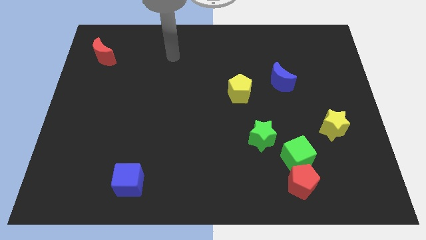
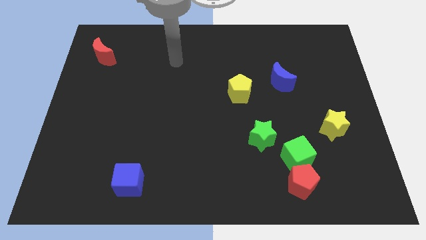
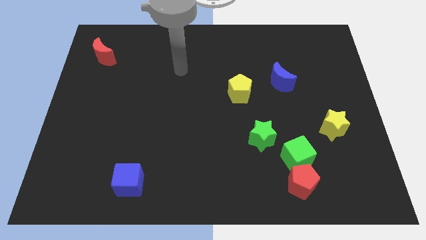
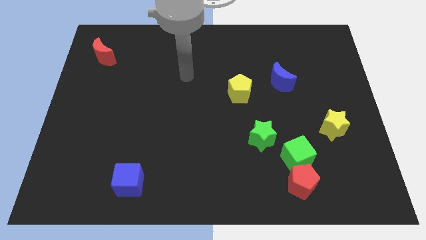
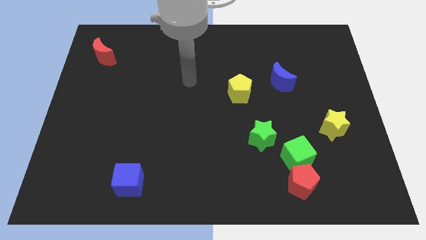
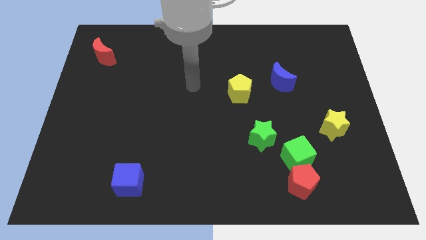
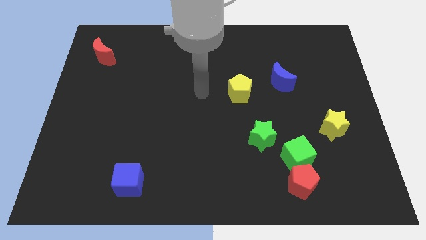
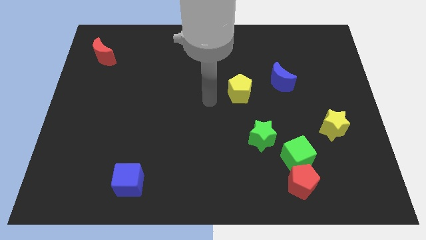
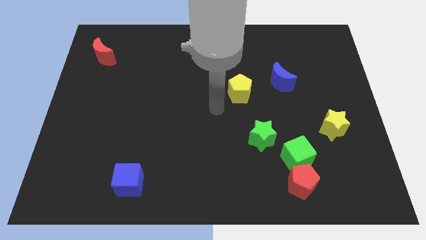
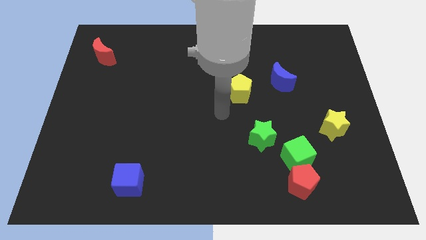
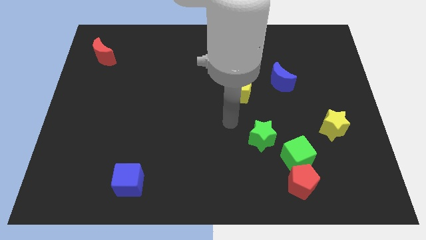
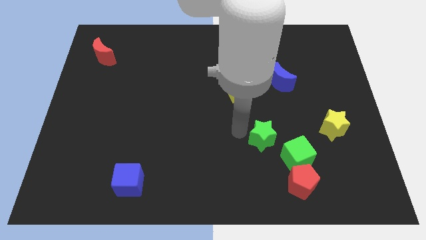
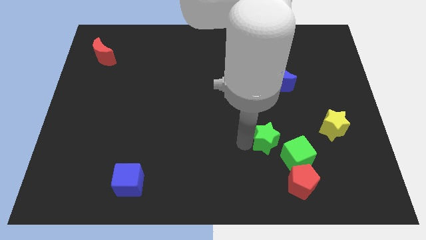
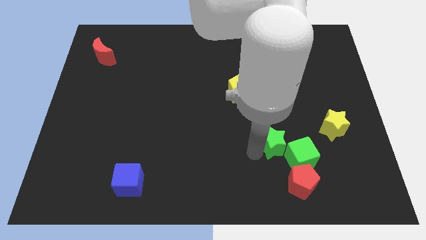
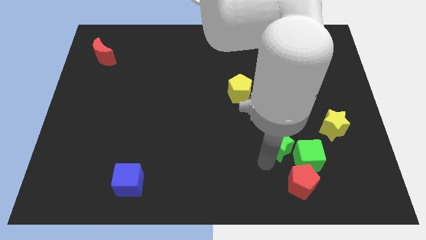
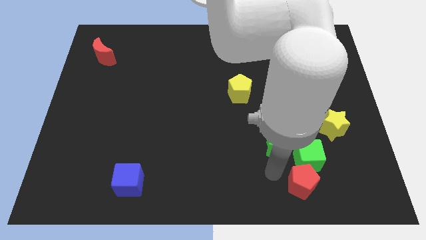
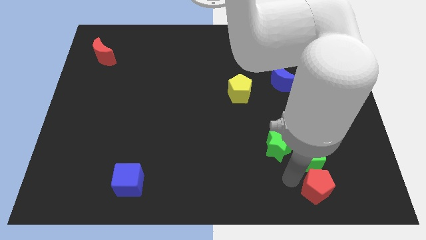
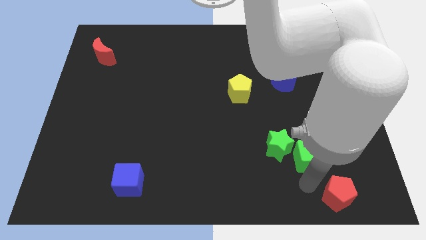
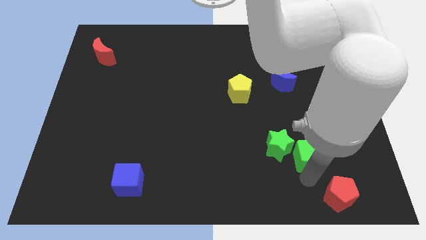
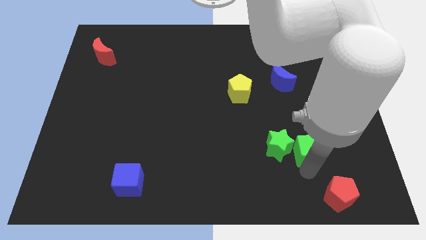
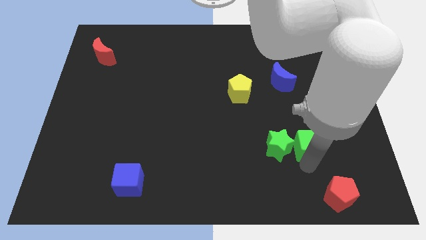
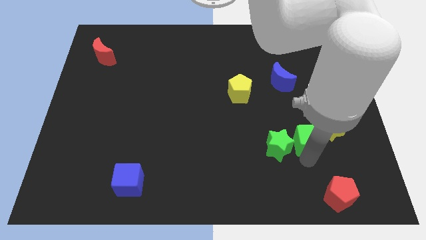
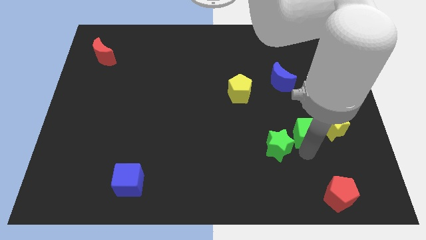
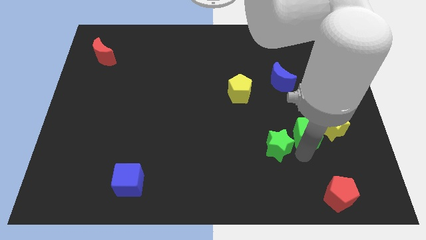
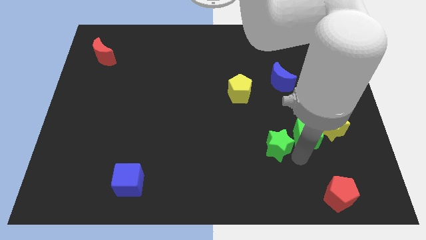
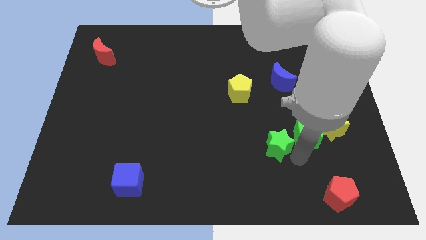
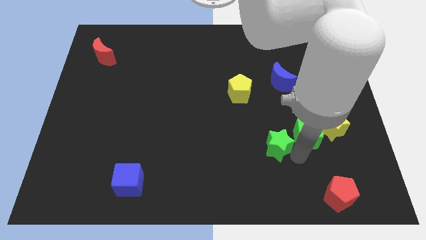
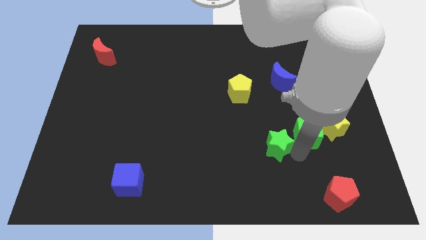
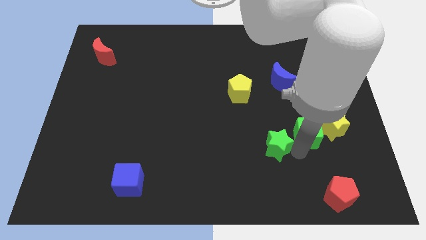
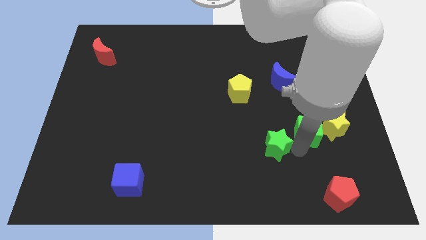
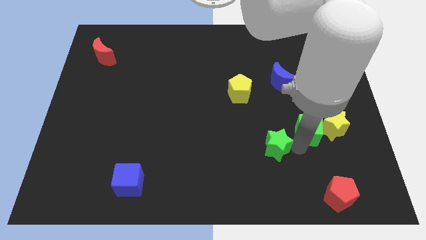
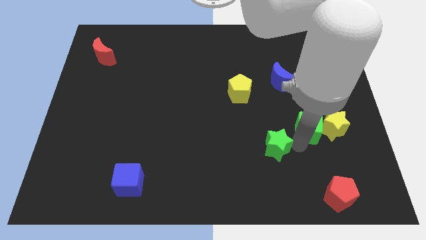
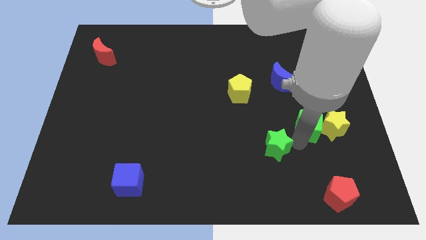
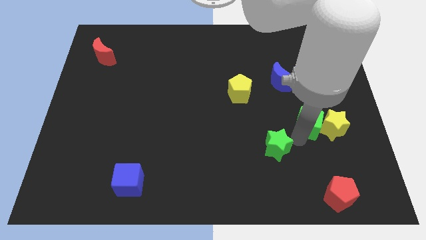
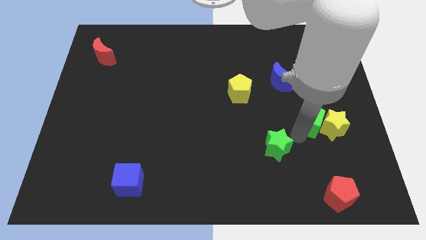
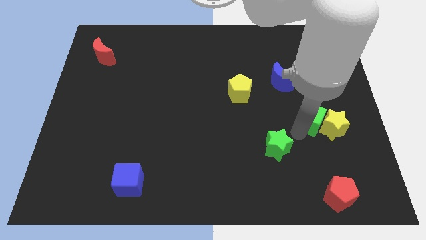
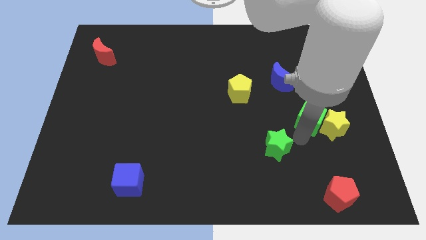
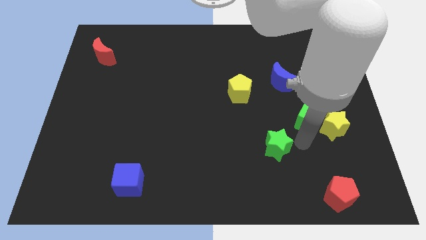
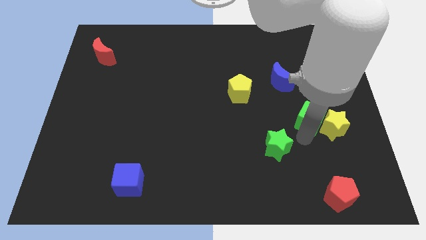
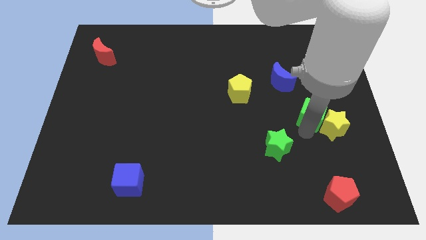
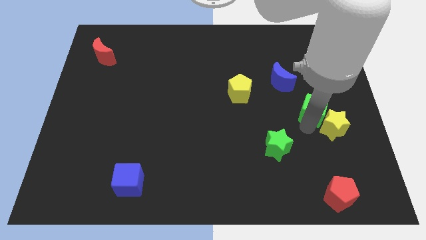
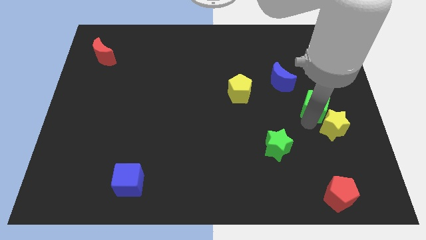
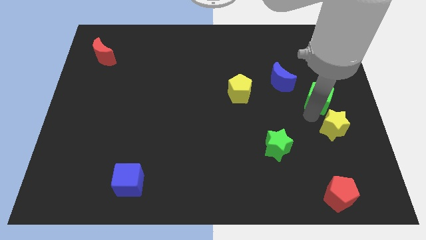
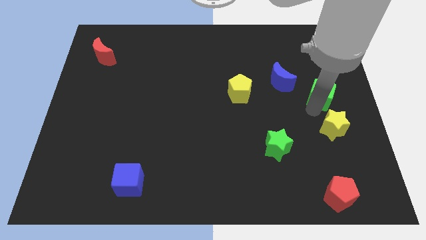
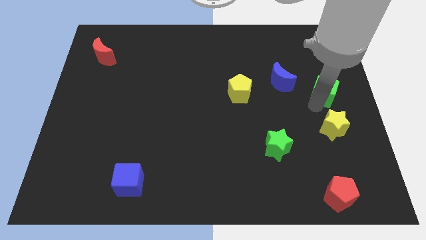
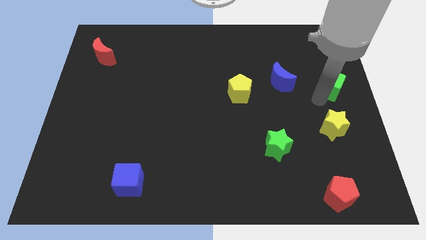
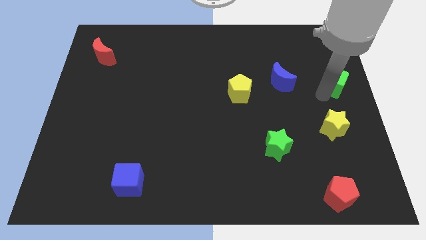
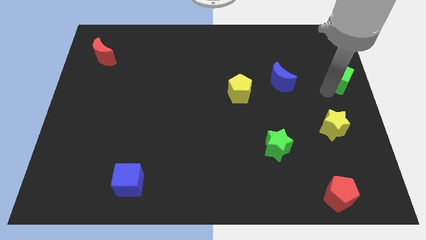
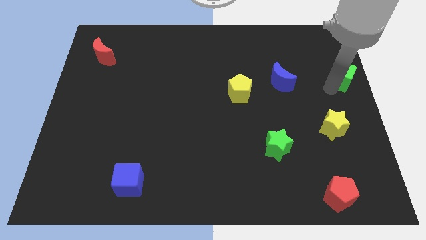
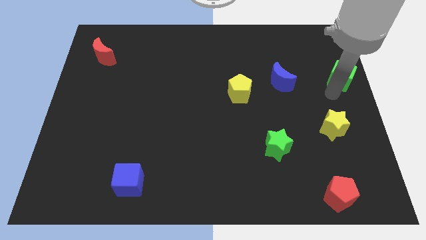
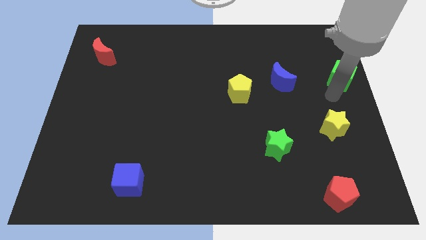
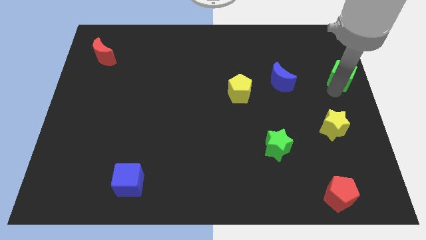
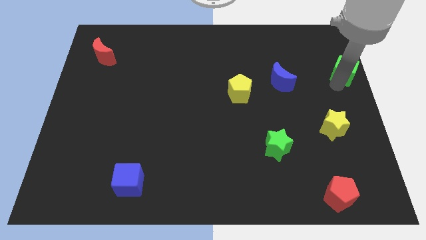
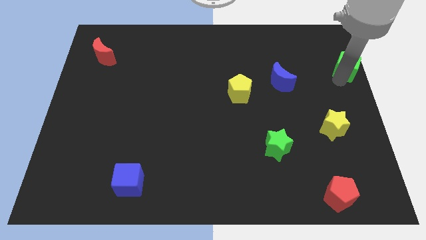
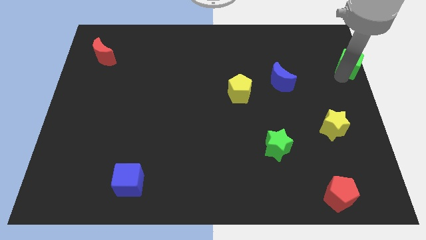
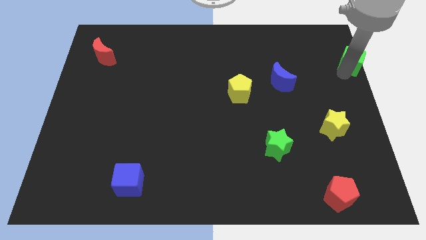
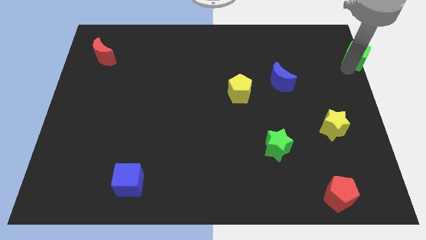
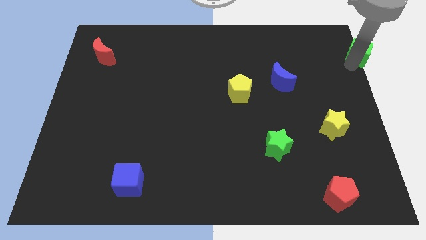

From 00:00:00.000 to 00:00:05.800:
push the green cube to the upper right corner

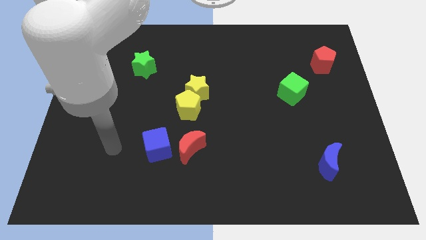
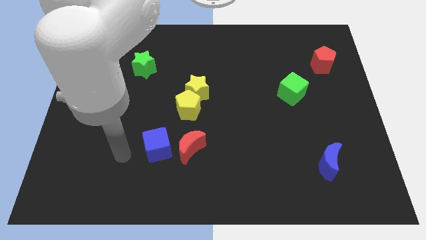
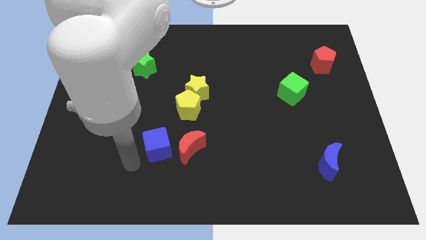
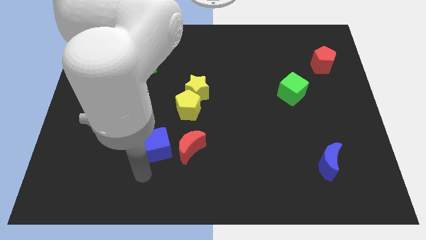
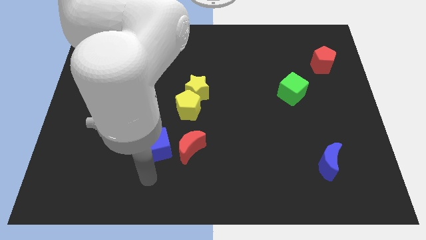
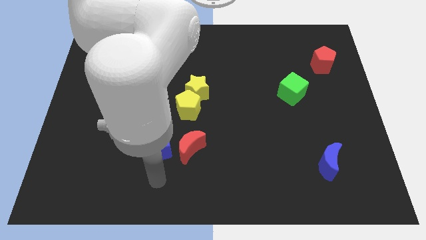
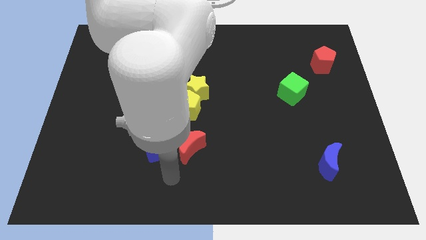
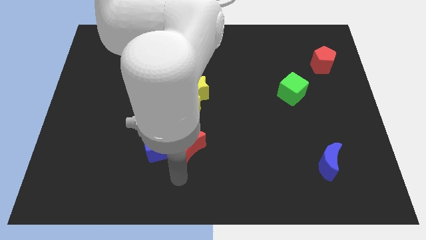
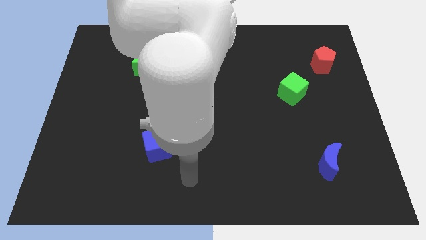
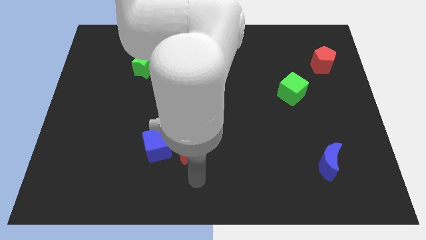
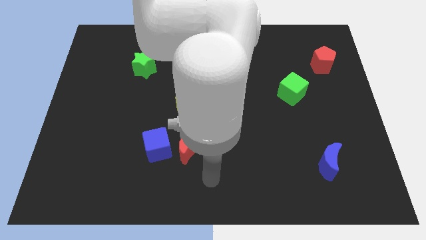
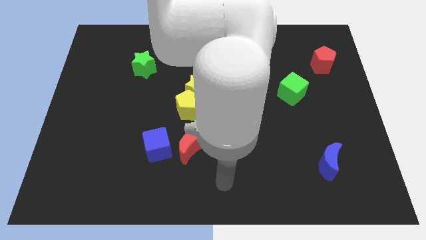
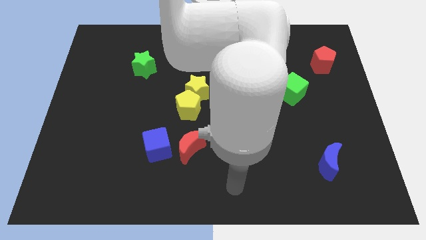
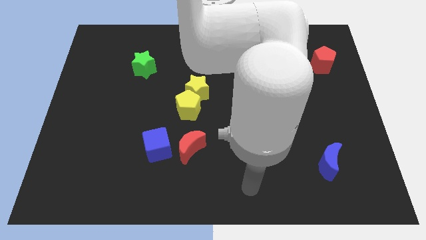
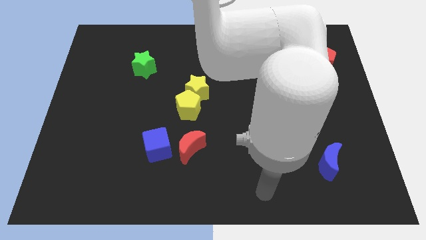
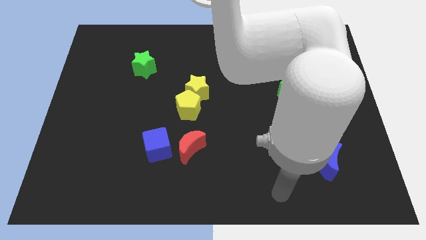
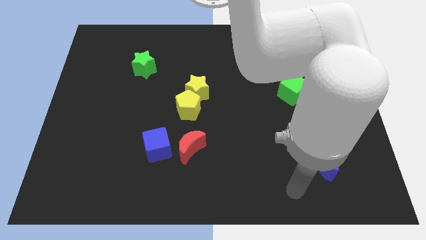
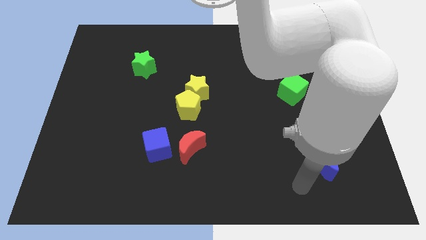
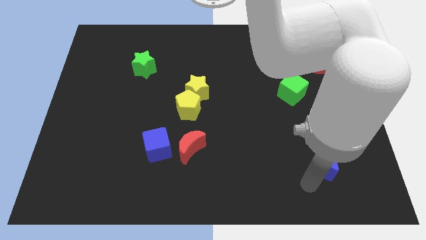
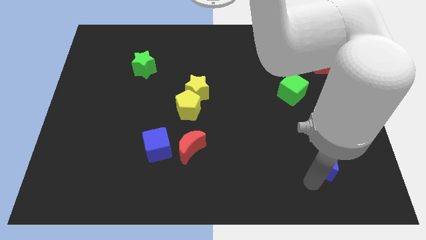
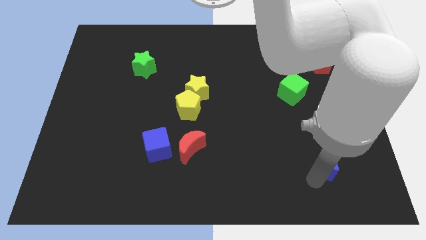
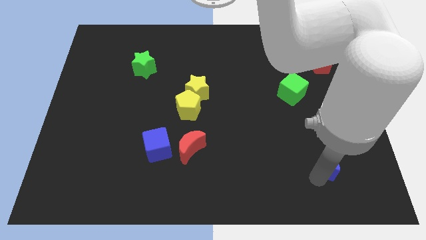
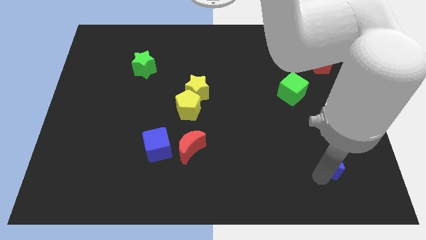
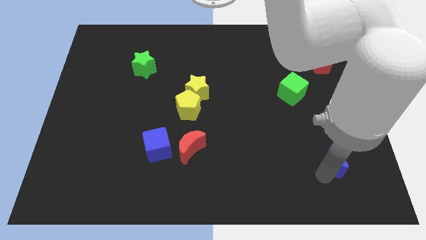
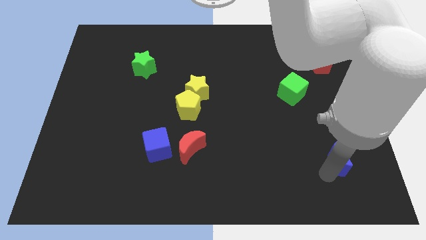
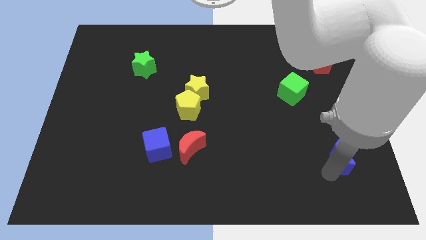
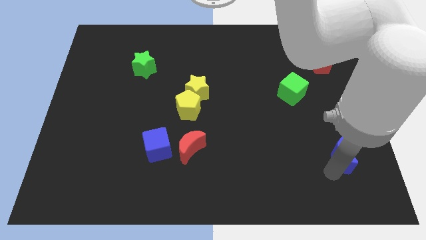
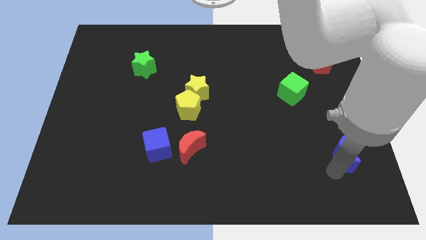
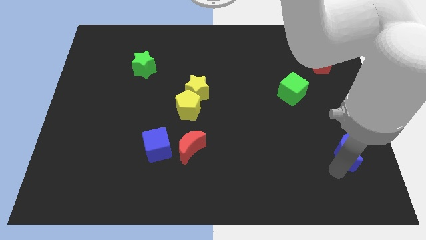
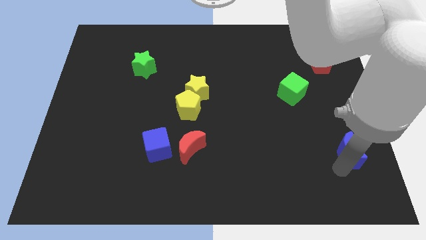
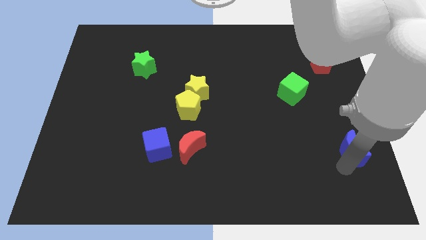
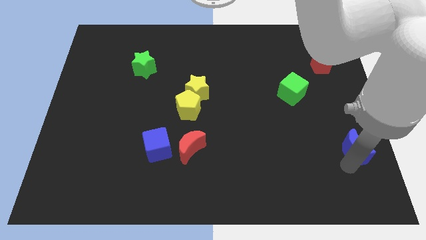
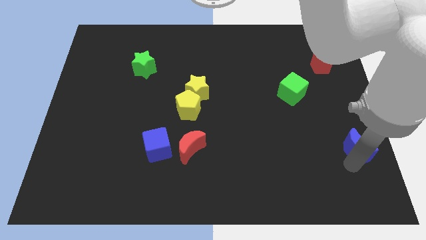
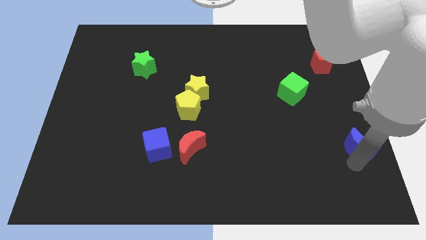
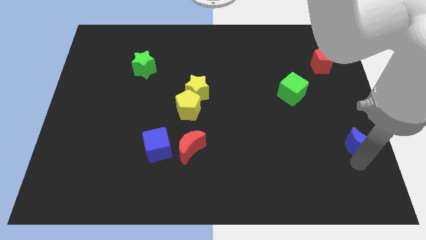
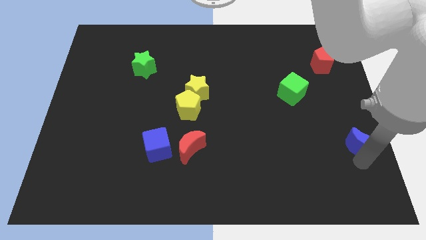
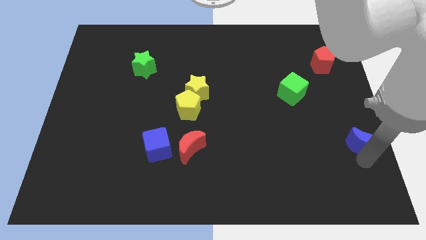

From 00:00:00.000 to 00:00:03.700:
slide the blue moon to the center right
